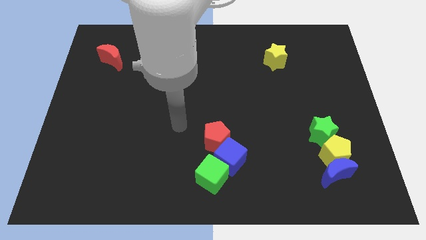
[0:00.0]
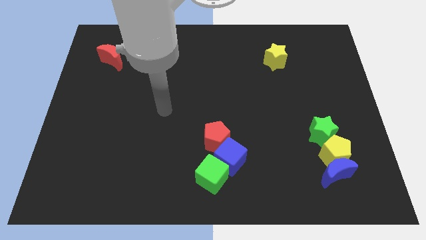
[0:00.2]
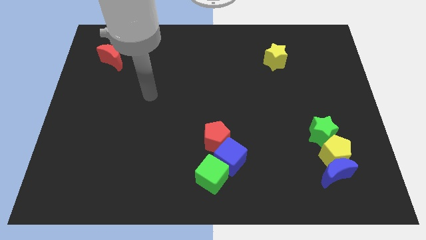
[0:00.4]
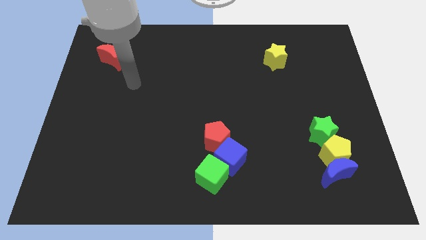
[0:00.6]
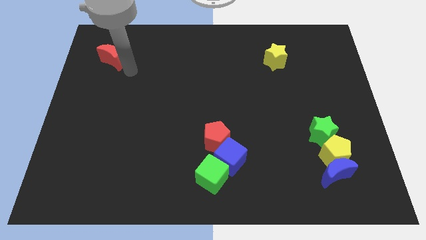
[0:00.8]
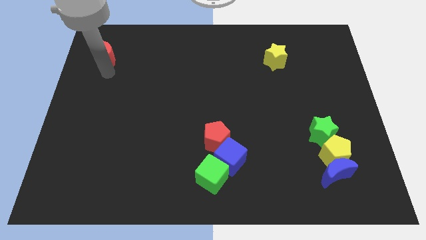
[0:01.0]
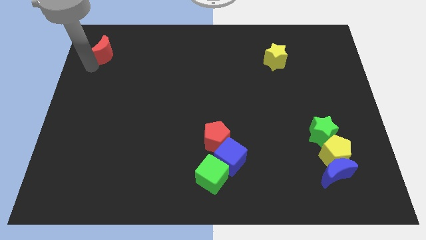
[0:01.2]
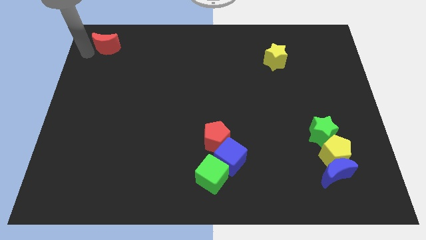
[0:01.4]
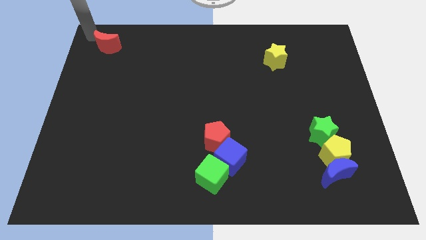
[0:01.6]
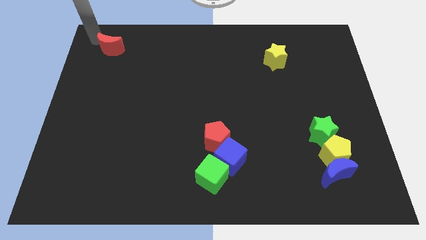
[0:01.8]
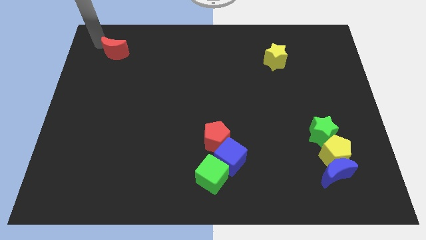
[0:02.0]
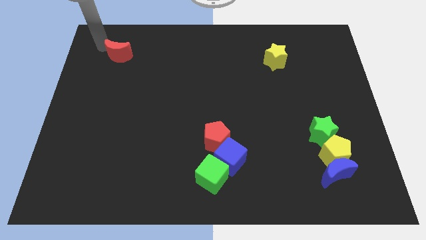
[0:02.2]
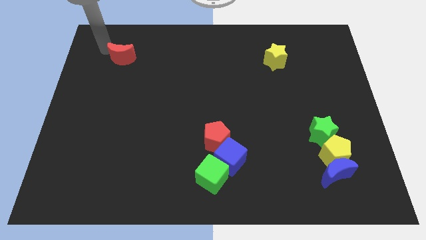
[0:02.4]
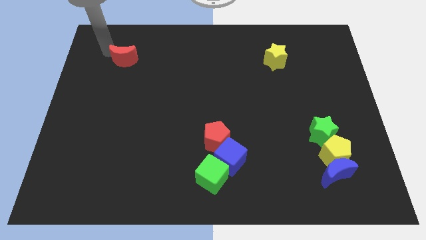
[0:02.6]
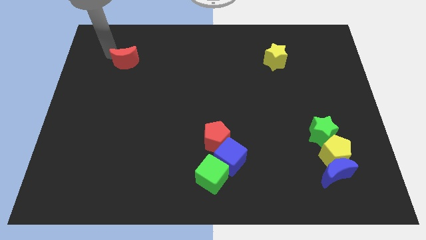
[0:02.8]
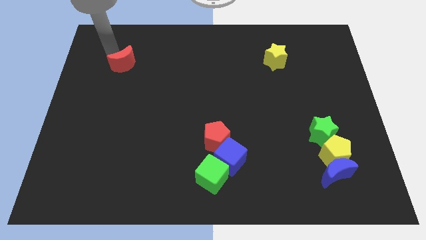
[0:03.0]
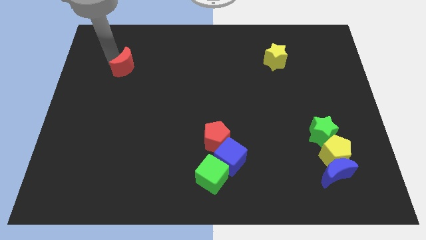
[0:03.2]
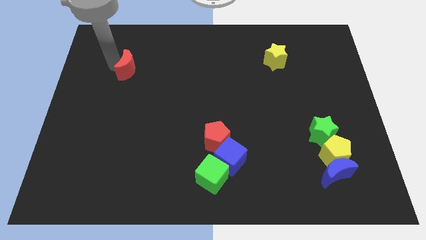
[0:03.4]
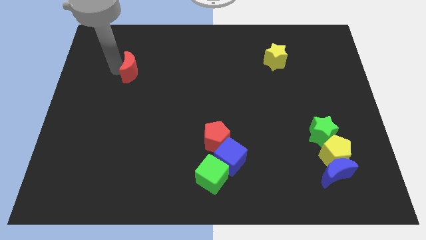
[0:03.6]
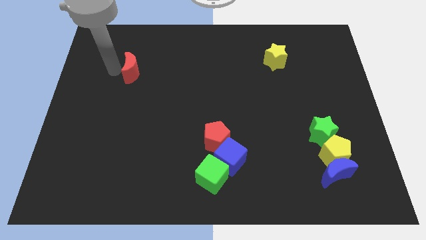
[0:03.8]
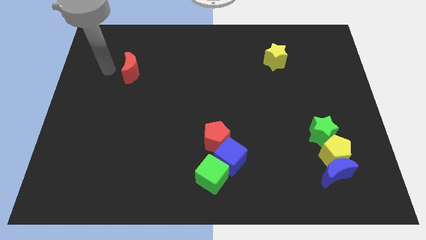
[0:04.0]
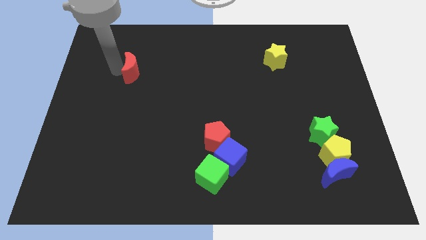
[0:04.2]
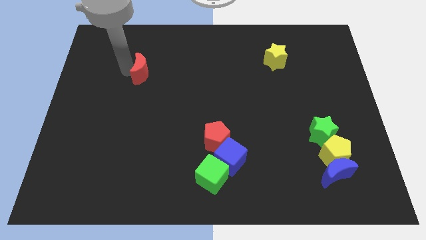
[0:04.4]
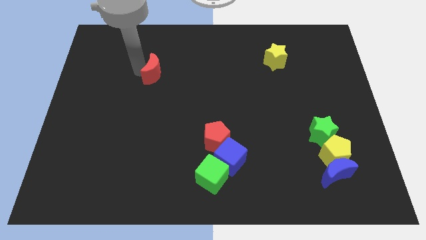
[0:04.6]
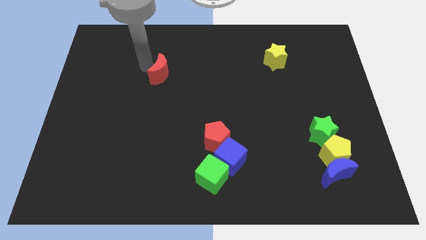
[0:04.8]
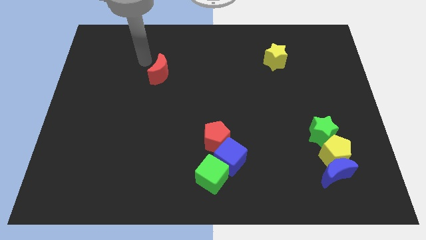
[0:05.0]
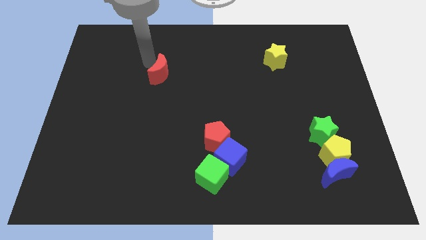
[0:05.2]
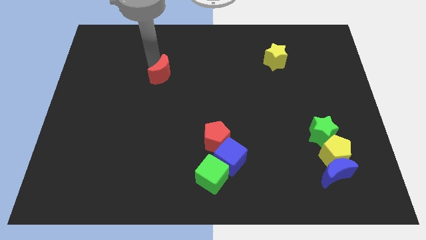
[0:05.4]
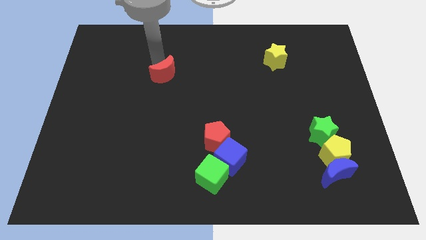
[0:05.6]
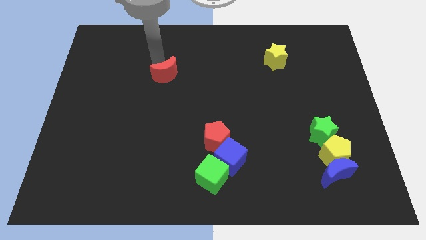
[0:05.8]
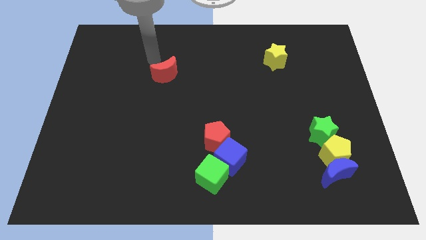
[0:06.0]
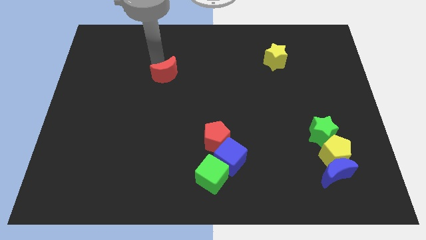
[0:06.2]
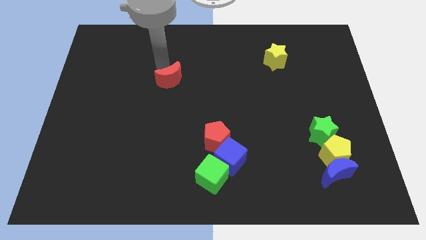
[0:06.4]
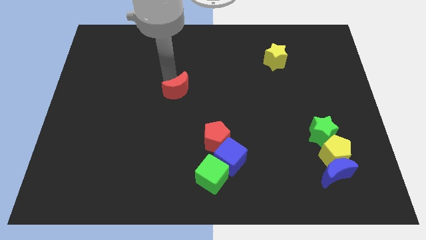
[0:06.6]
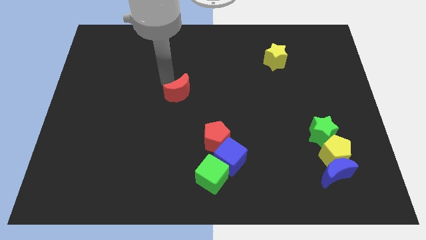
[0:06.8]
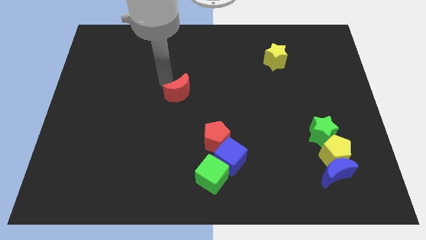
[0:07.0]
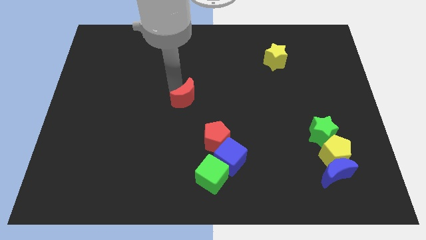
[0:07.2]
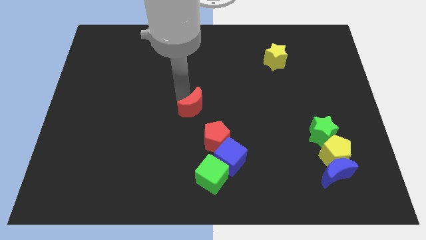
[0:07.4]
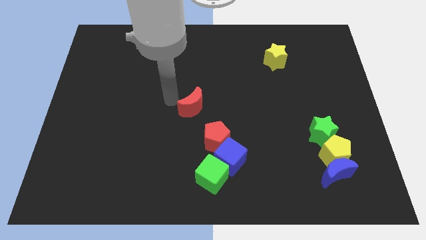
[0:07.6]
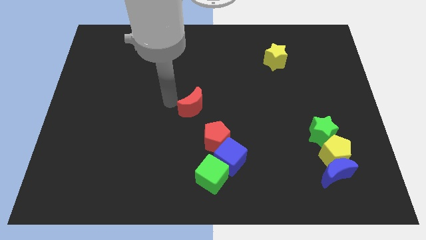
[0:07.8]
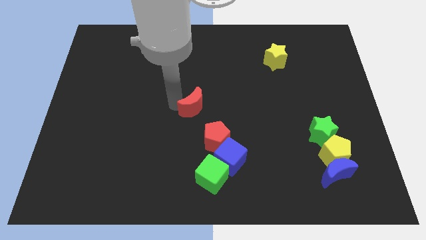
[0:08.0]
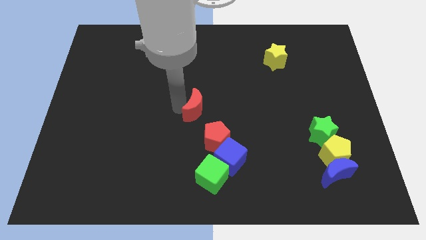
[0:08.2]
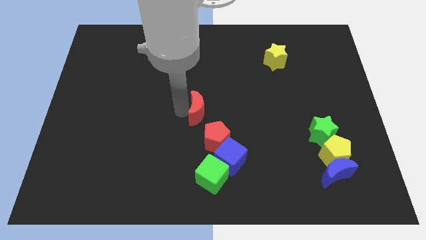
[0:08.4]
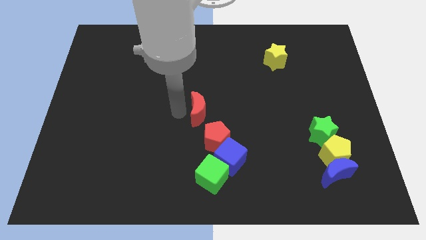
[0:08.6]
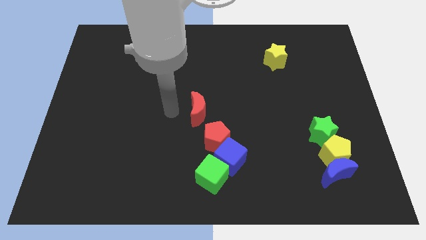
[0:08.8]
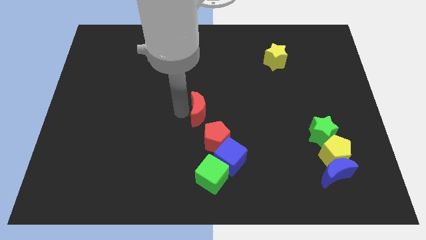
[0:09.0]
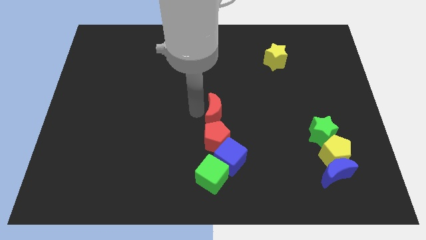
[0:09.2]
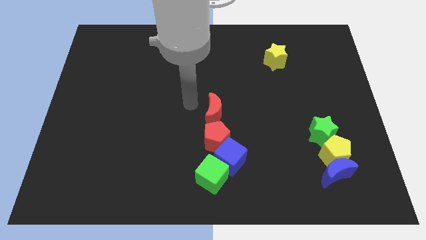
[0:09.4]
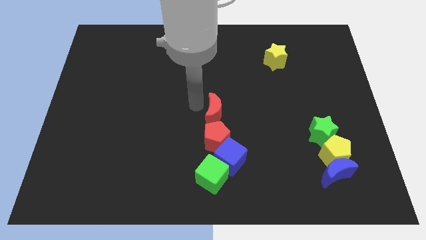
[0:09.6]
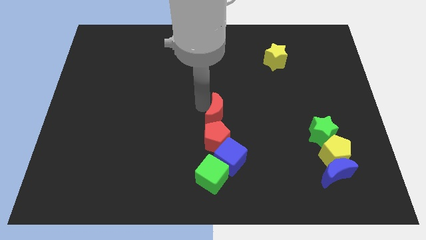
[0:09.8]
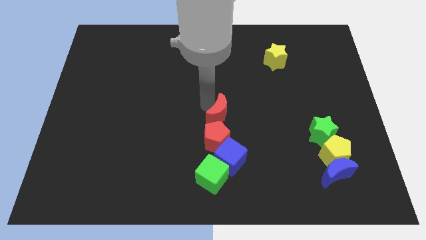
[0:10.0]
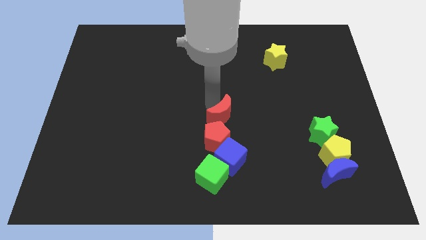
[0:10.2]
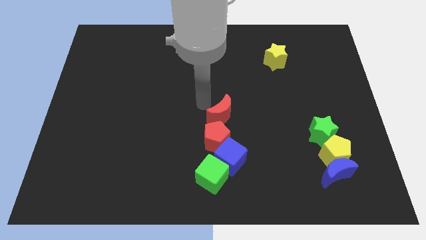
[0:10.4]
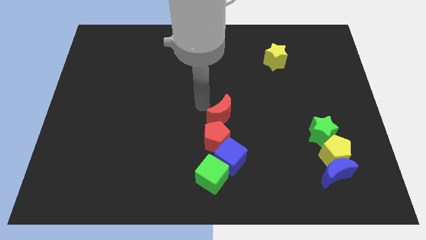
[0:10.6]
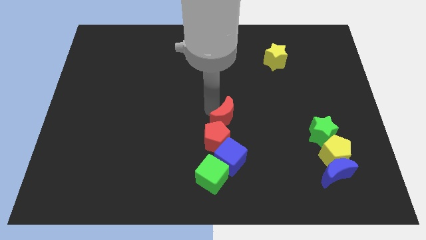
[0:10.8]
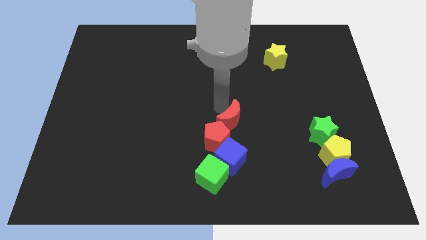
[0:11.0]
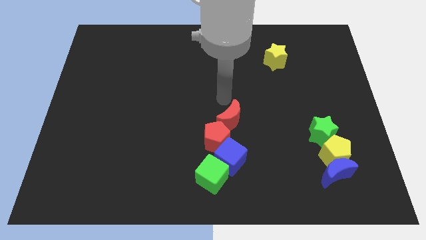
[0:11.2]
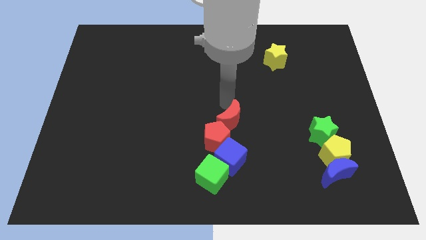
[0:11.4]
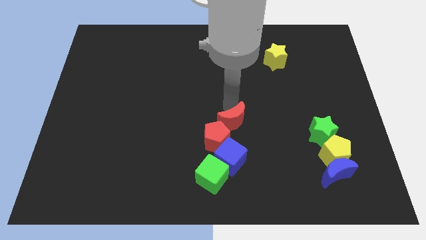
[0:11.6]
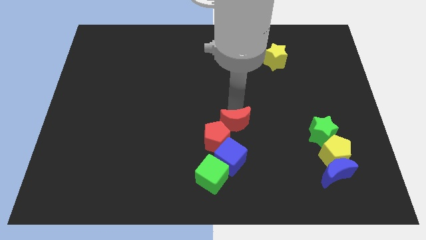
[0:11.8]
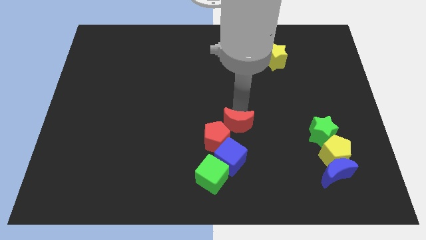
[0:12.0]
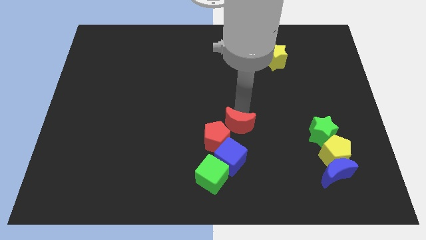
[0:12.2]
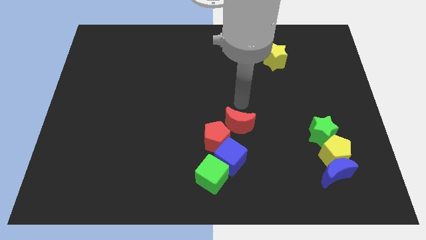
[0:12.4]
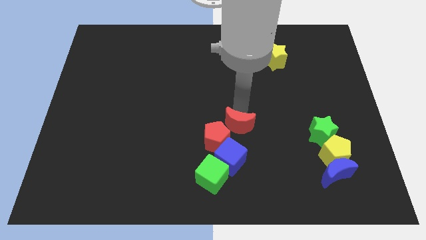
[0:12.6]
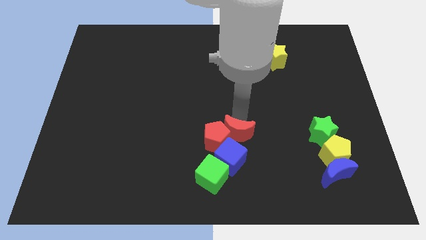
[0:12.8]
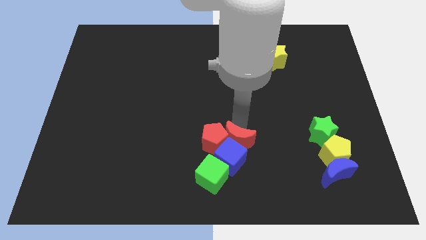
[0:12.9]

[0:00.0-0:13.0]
slide the red moon close to the blue cube

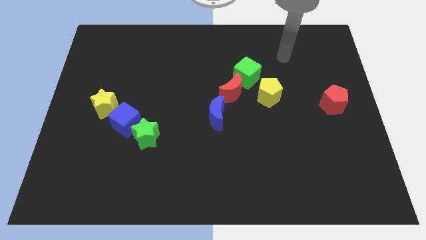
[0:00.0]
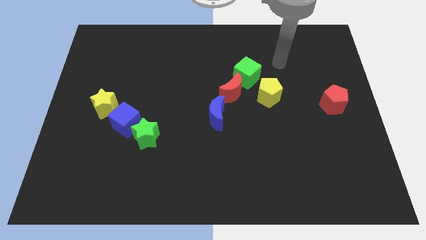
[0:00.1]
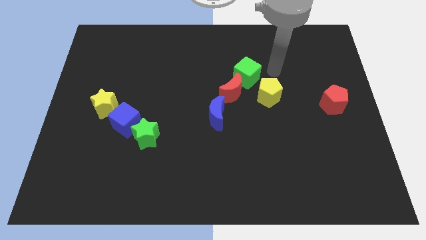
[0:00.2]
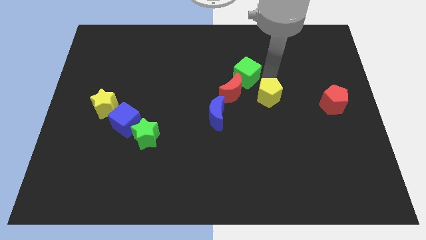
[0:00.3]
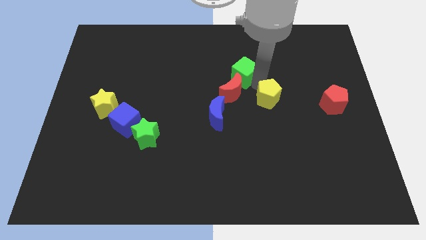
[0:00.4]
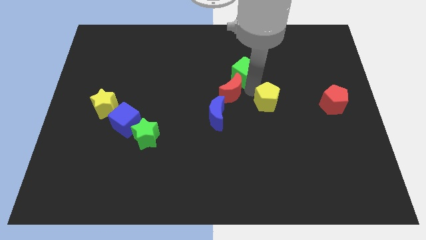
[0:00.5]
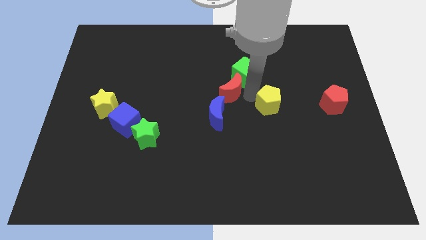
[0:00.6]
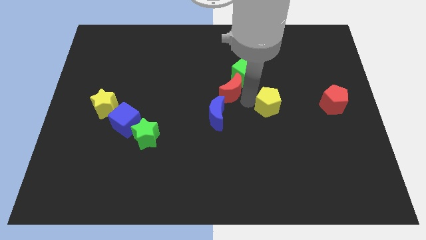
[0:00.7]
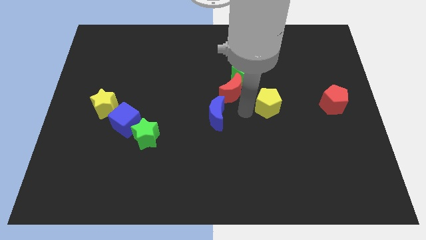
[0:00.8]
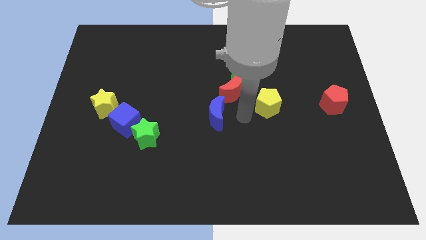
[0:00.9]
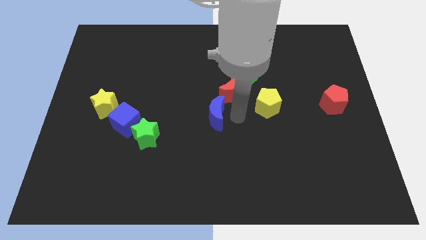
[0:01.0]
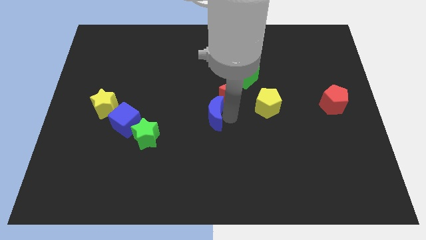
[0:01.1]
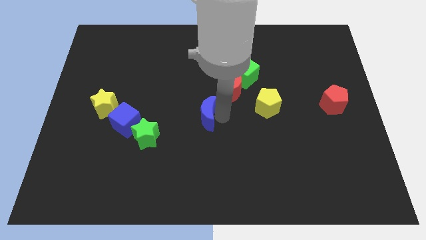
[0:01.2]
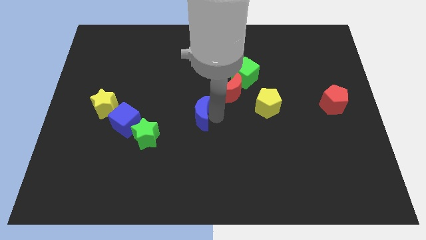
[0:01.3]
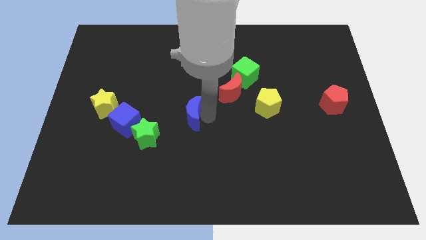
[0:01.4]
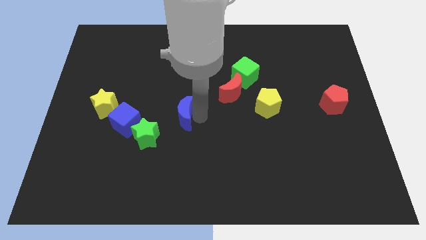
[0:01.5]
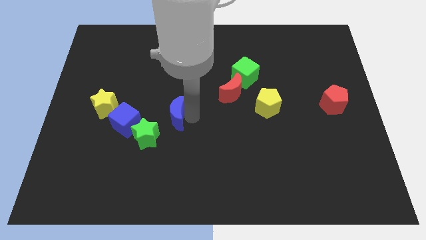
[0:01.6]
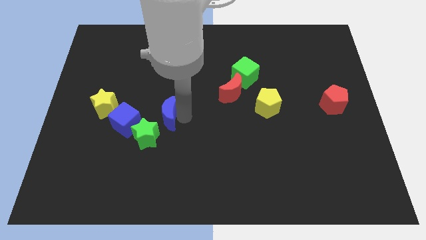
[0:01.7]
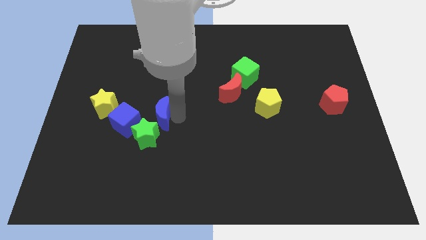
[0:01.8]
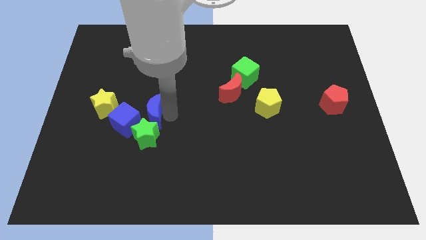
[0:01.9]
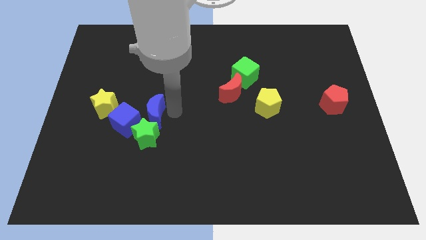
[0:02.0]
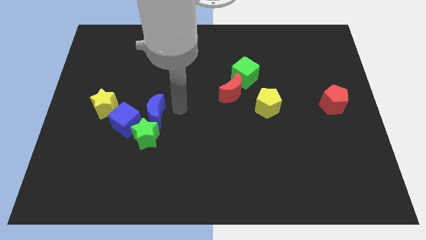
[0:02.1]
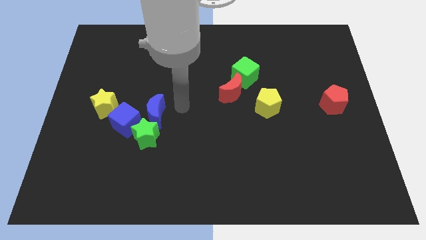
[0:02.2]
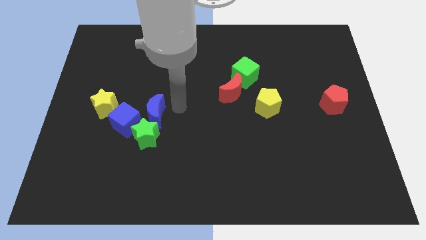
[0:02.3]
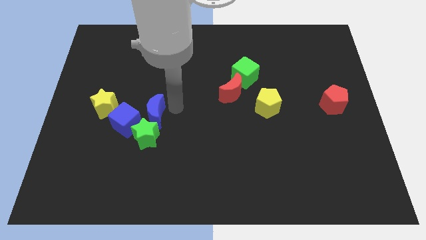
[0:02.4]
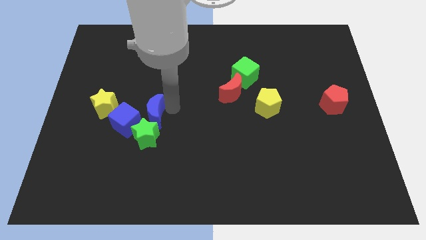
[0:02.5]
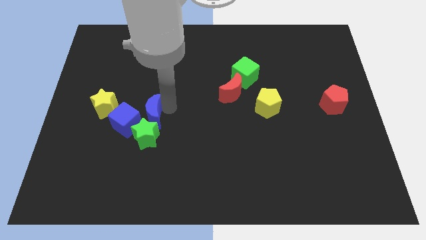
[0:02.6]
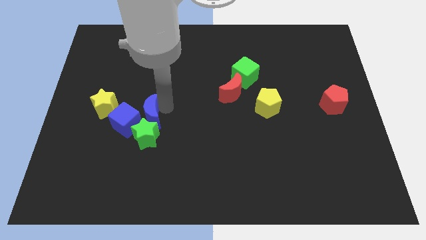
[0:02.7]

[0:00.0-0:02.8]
slide the blue moon towards the blue cube
